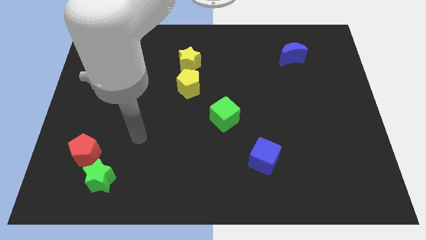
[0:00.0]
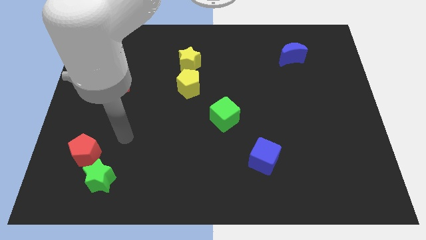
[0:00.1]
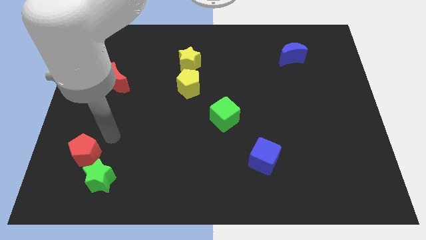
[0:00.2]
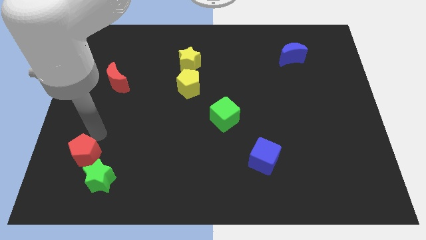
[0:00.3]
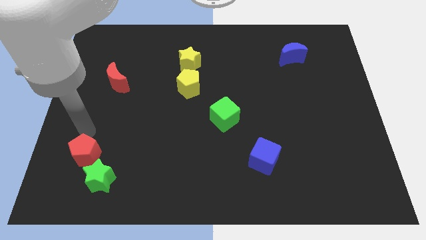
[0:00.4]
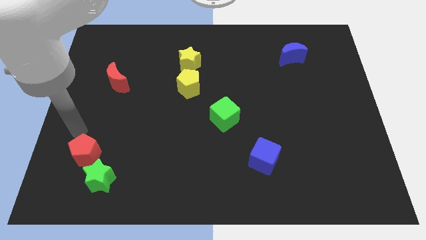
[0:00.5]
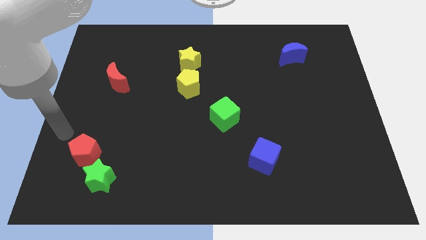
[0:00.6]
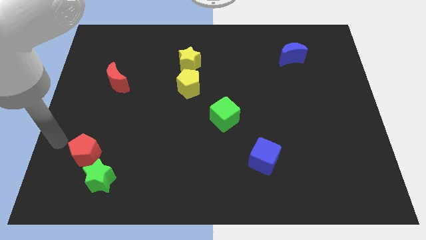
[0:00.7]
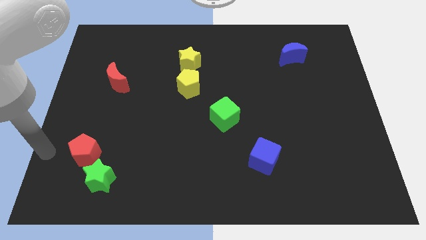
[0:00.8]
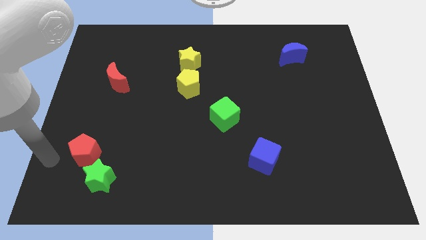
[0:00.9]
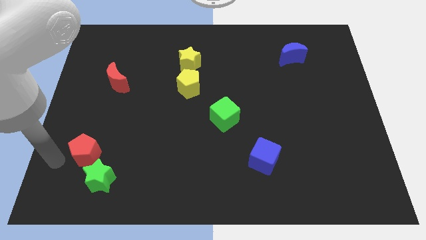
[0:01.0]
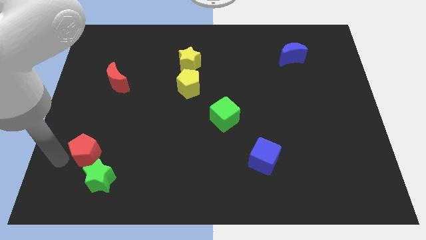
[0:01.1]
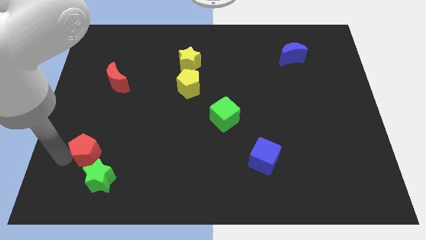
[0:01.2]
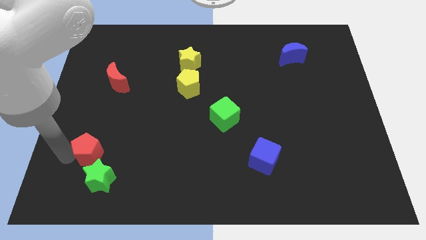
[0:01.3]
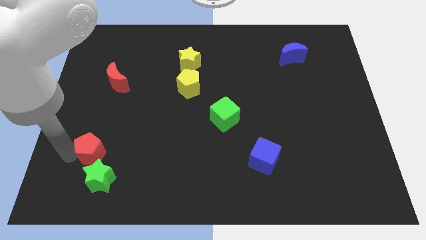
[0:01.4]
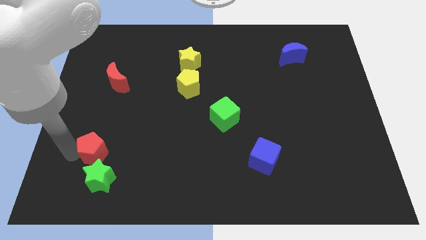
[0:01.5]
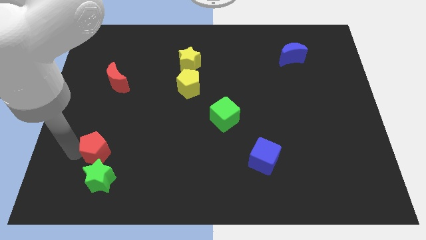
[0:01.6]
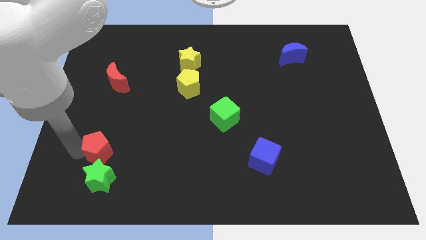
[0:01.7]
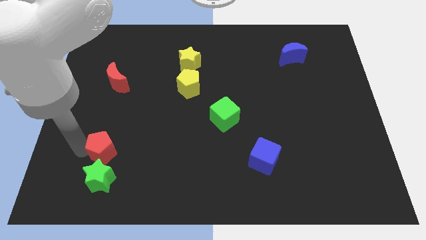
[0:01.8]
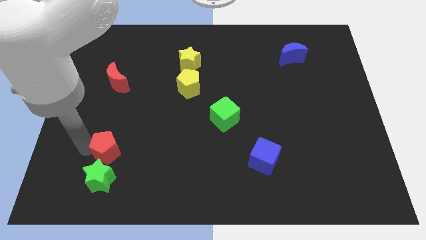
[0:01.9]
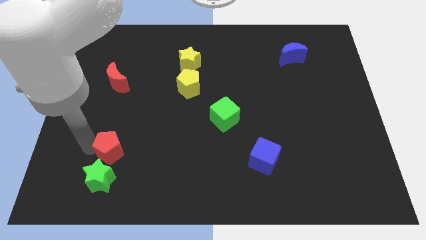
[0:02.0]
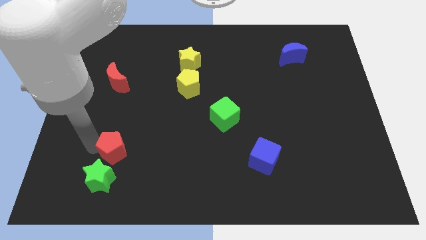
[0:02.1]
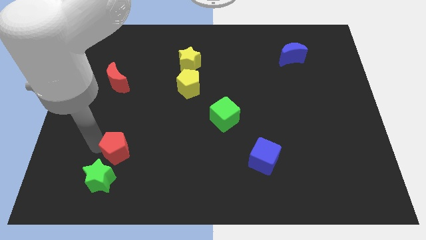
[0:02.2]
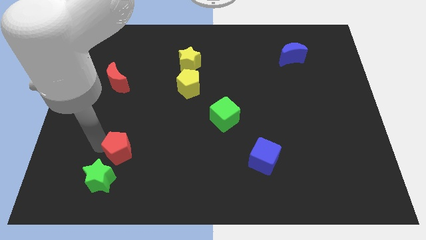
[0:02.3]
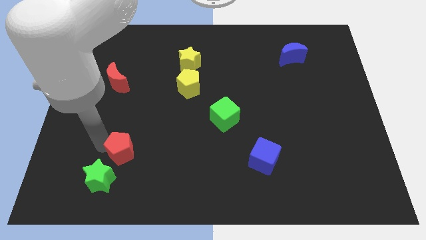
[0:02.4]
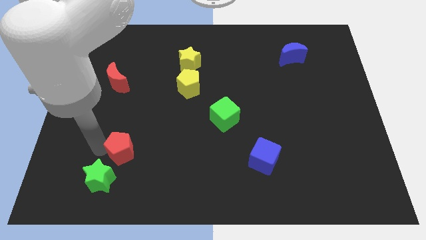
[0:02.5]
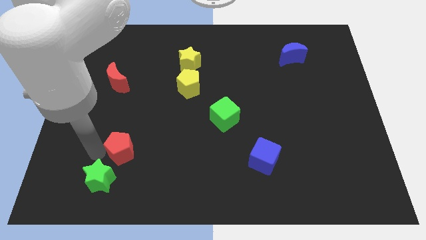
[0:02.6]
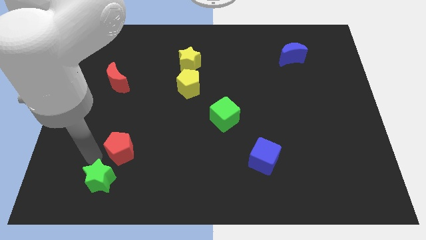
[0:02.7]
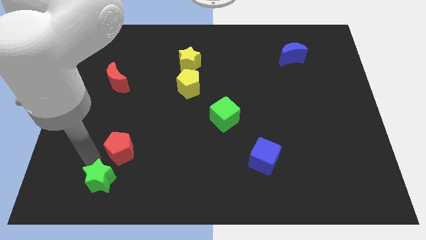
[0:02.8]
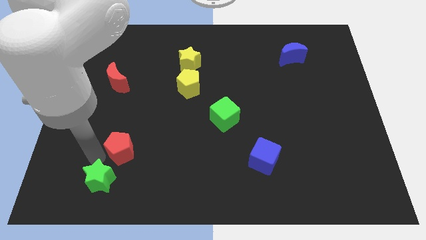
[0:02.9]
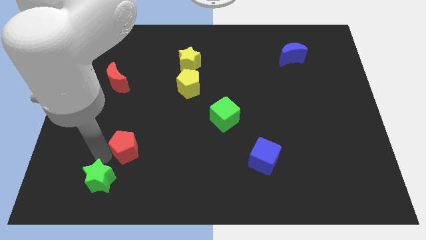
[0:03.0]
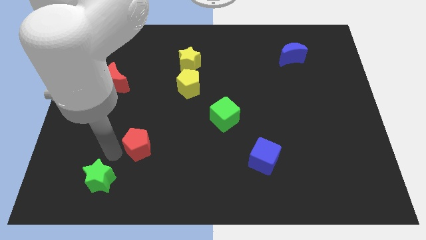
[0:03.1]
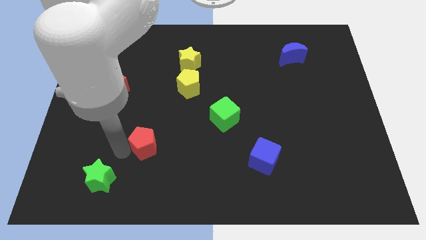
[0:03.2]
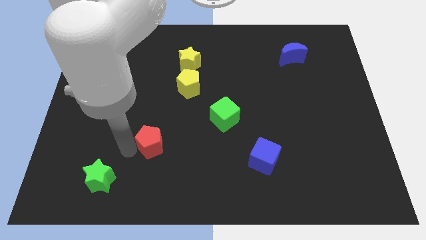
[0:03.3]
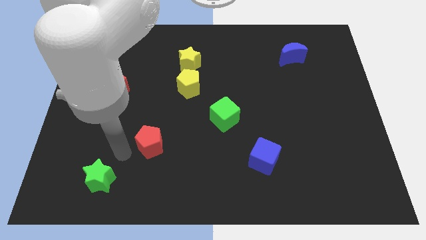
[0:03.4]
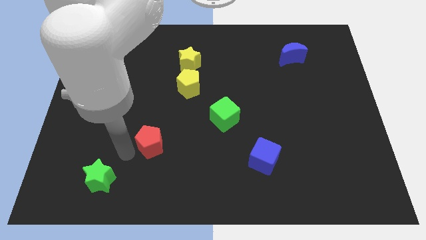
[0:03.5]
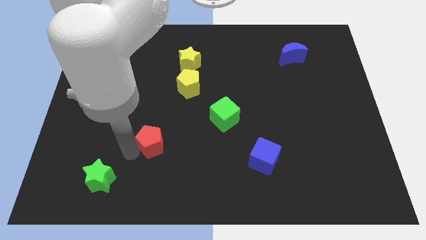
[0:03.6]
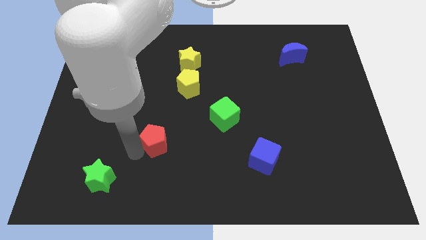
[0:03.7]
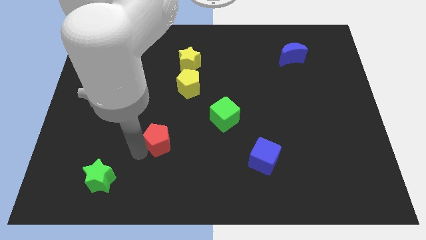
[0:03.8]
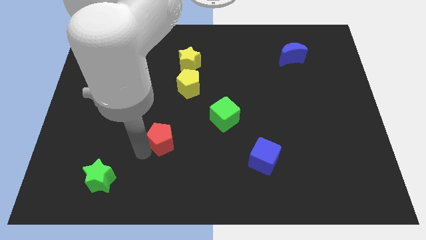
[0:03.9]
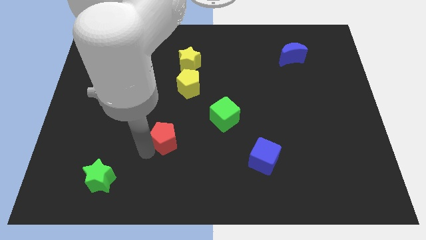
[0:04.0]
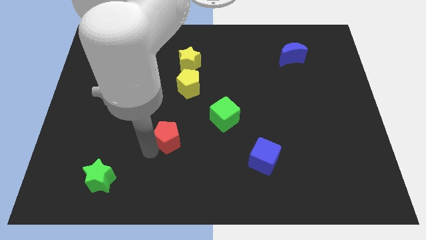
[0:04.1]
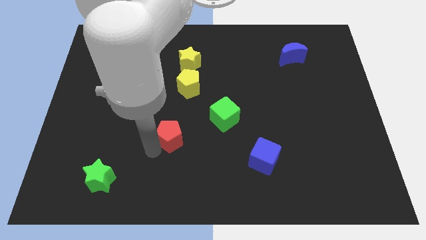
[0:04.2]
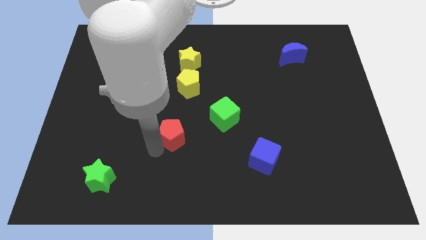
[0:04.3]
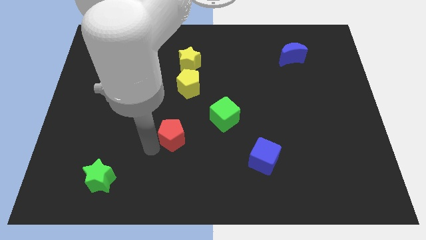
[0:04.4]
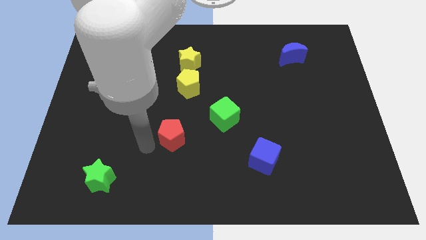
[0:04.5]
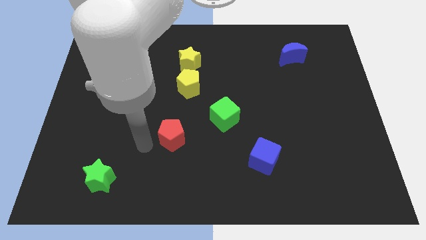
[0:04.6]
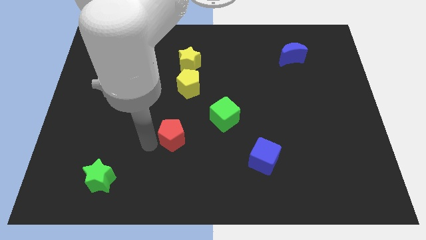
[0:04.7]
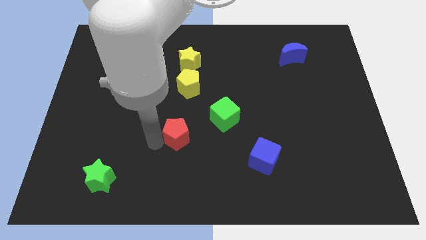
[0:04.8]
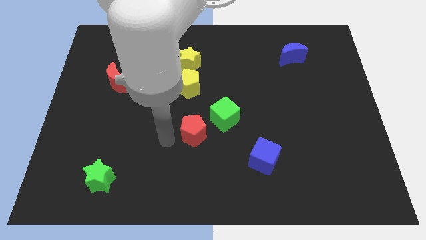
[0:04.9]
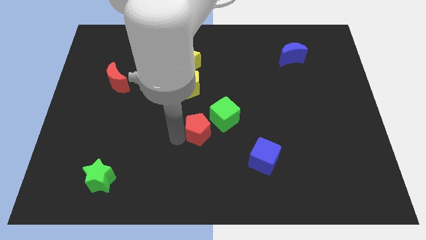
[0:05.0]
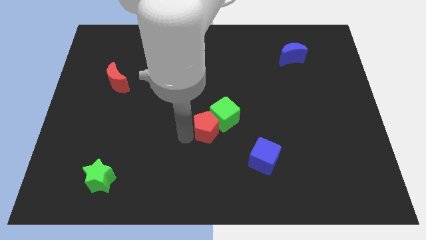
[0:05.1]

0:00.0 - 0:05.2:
move the red pentagon next to the green cube
